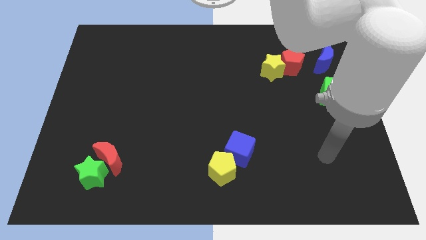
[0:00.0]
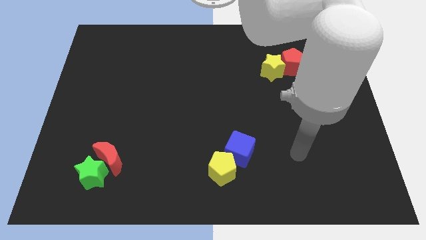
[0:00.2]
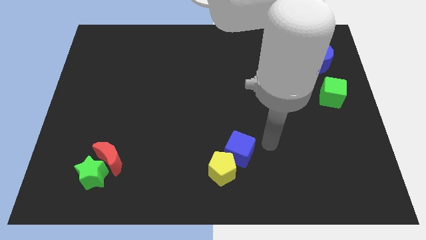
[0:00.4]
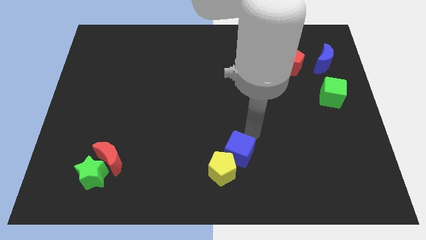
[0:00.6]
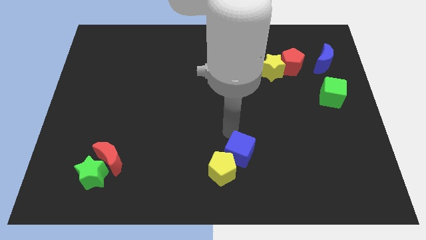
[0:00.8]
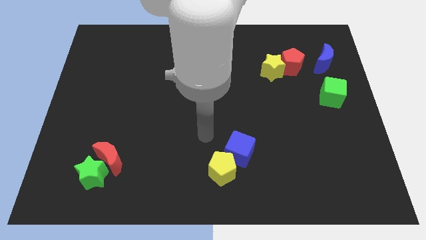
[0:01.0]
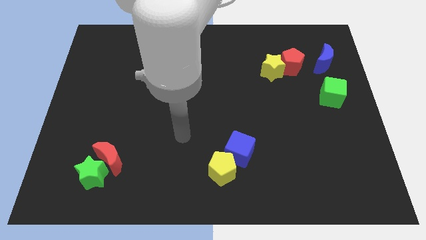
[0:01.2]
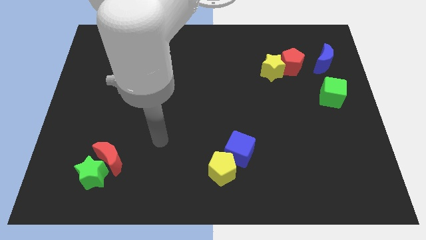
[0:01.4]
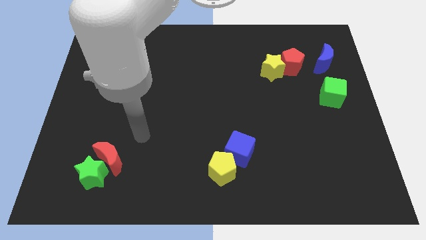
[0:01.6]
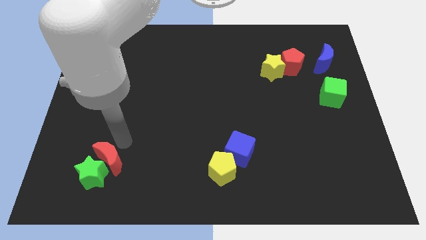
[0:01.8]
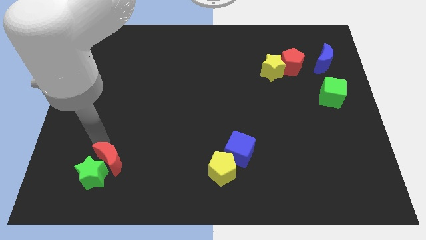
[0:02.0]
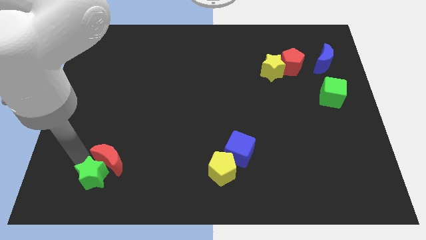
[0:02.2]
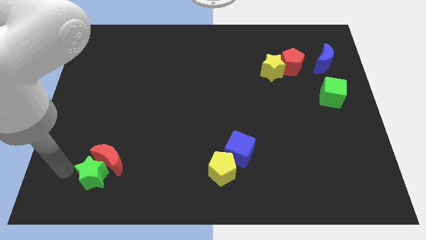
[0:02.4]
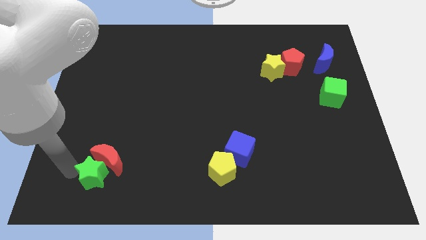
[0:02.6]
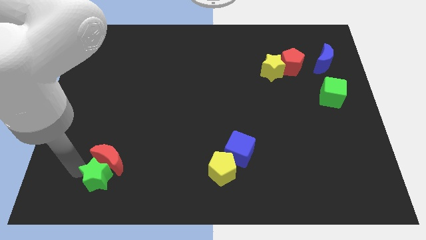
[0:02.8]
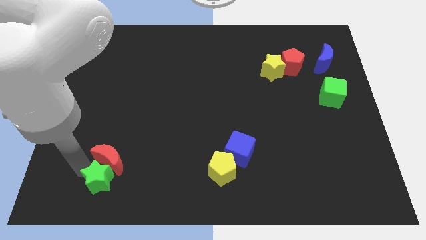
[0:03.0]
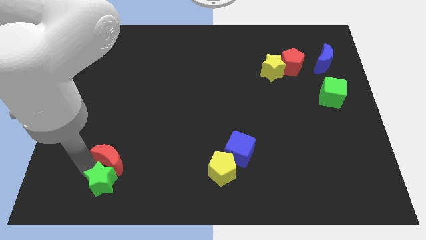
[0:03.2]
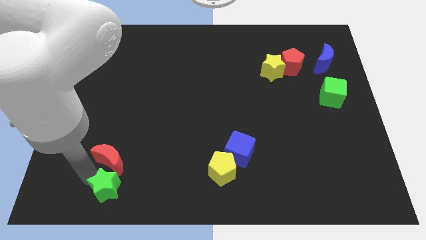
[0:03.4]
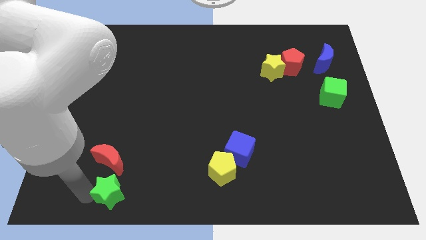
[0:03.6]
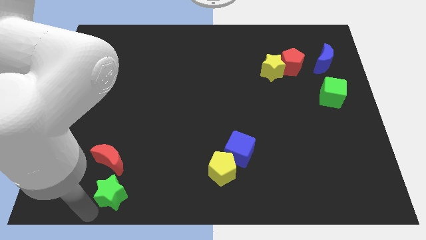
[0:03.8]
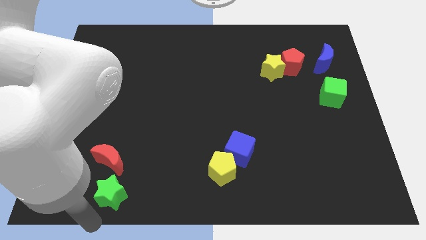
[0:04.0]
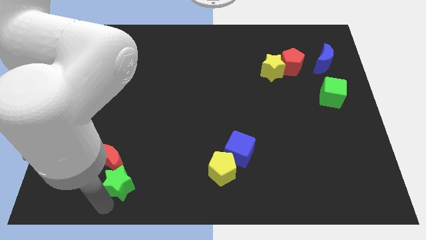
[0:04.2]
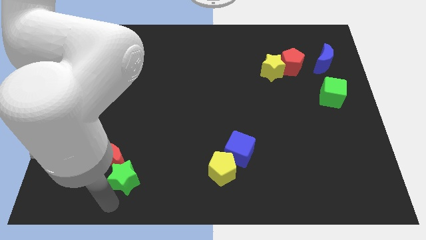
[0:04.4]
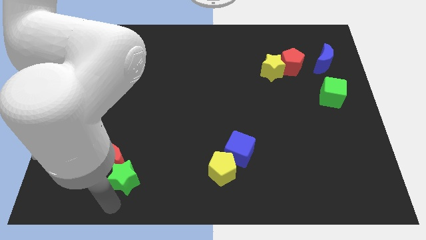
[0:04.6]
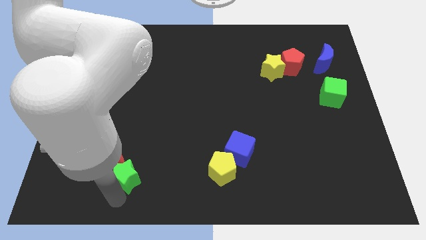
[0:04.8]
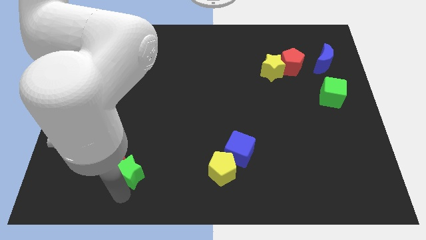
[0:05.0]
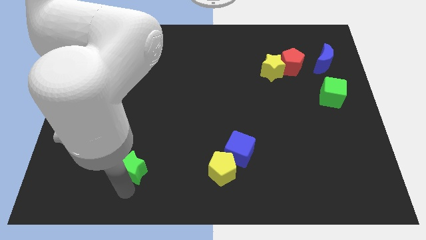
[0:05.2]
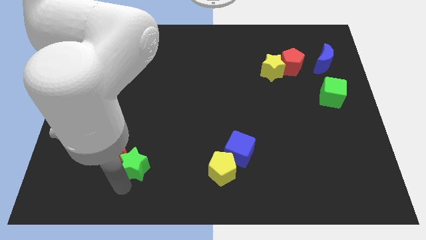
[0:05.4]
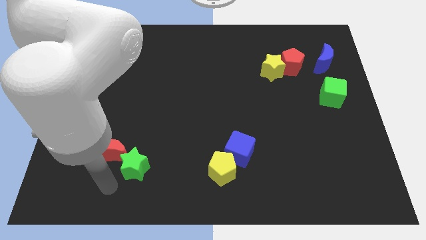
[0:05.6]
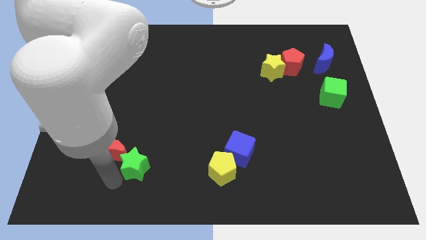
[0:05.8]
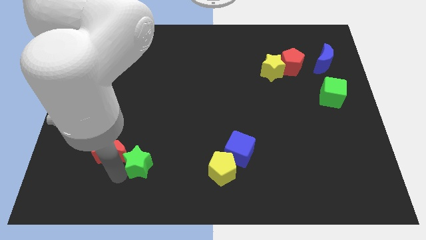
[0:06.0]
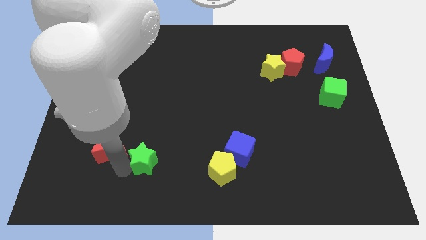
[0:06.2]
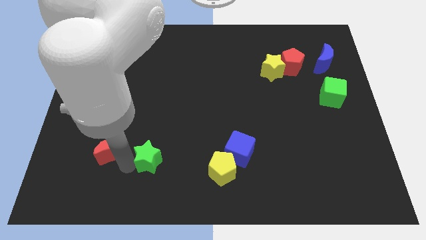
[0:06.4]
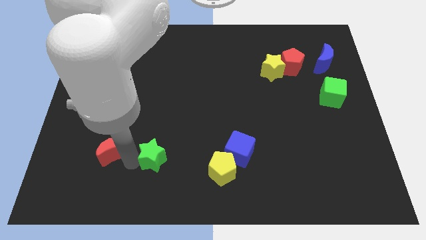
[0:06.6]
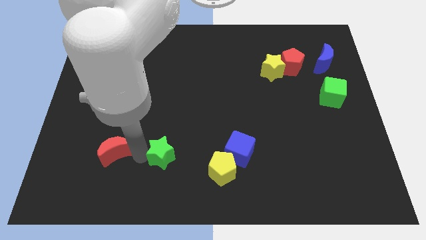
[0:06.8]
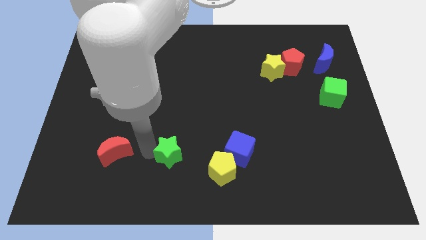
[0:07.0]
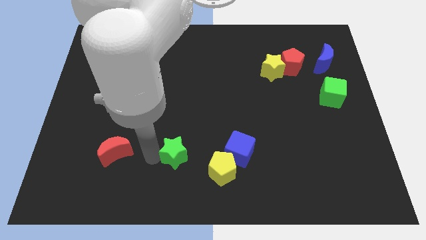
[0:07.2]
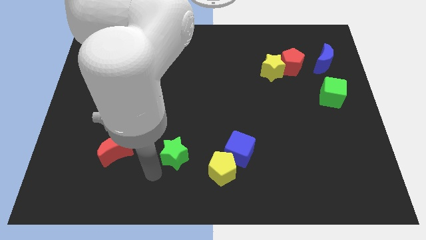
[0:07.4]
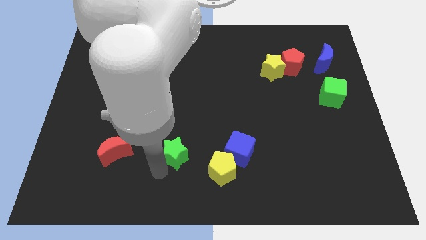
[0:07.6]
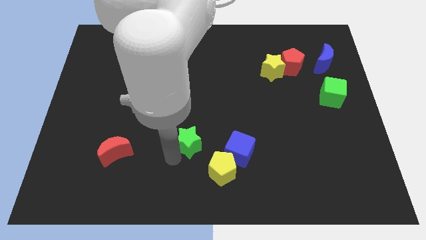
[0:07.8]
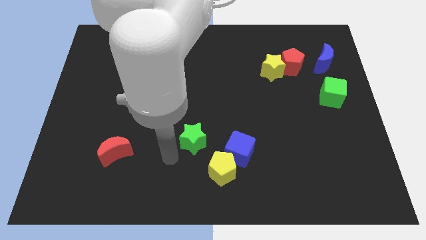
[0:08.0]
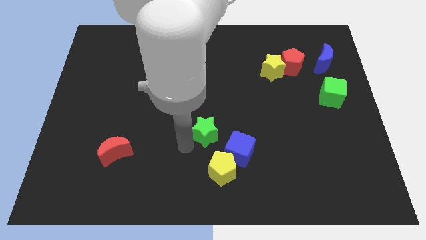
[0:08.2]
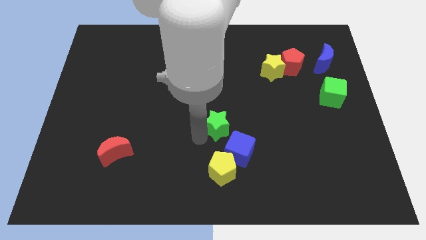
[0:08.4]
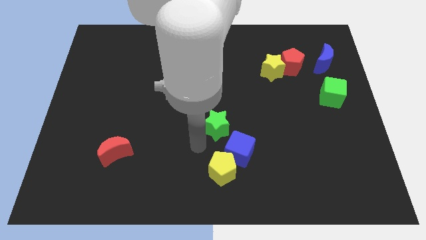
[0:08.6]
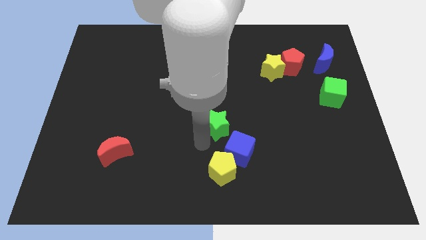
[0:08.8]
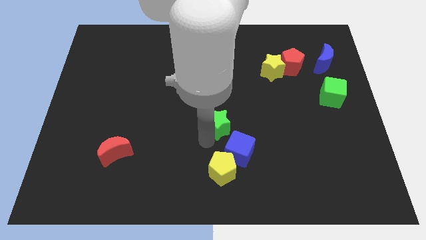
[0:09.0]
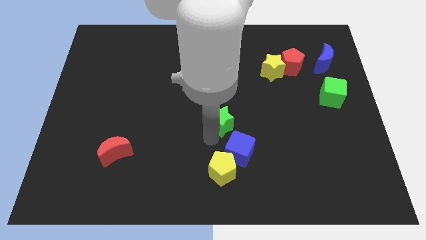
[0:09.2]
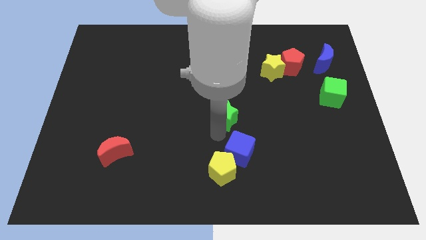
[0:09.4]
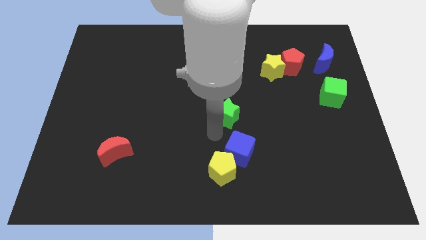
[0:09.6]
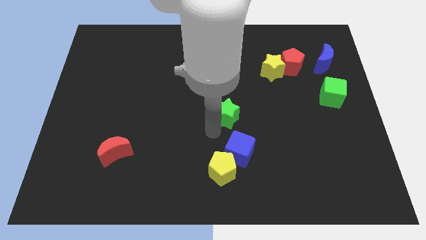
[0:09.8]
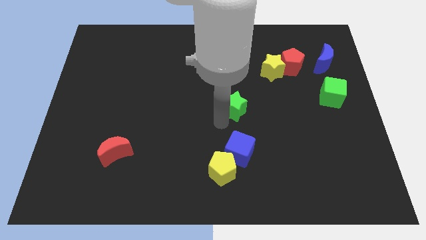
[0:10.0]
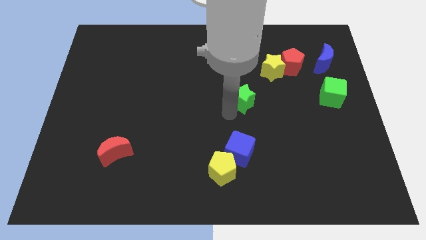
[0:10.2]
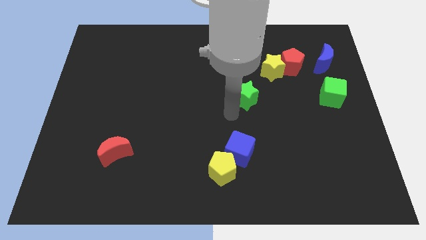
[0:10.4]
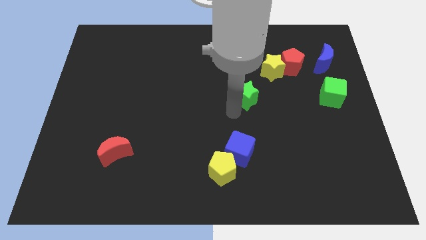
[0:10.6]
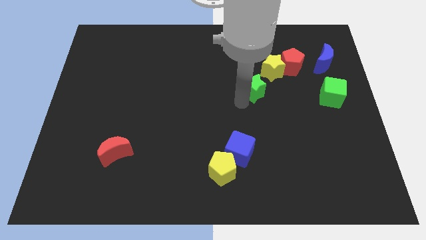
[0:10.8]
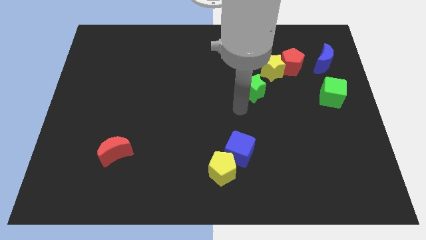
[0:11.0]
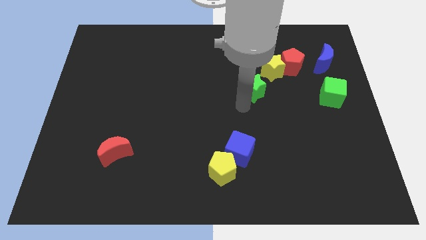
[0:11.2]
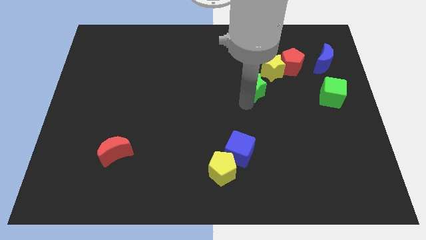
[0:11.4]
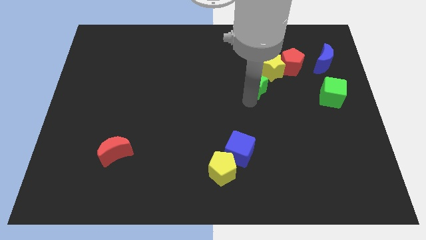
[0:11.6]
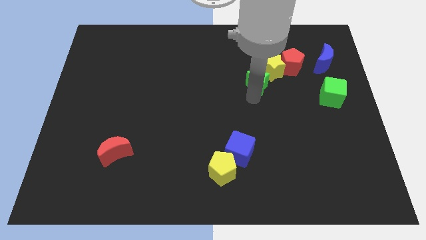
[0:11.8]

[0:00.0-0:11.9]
slide the green star towards the yellow star

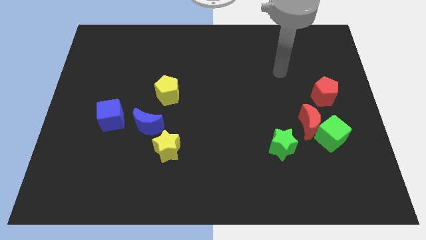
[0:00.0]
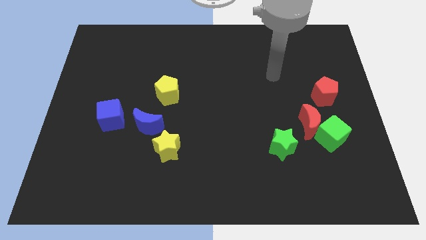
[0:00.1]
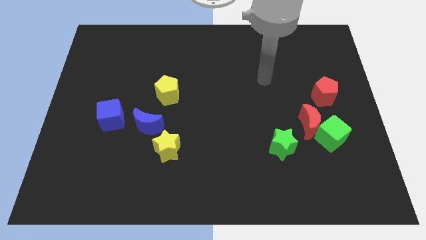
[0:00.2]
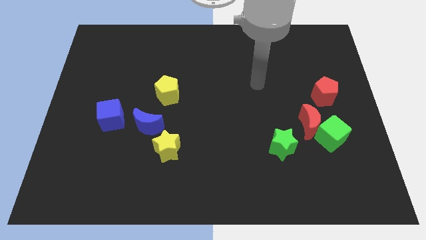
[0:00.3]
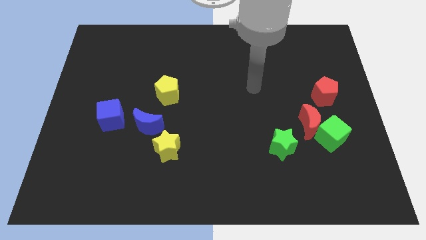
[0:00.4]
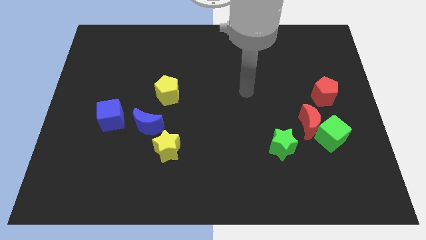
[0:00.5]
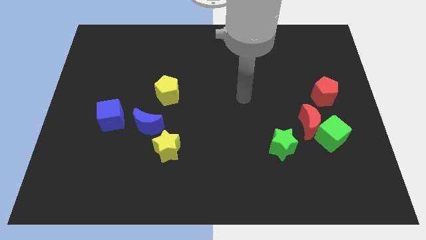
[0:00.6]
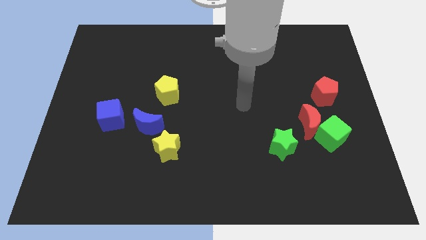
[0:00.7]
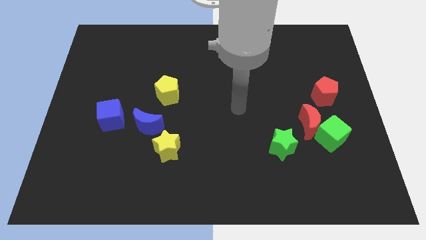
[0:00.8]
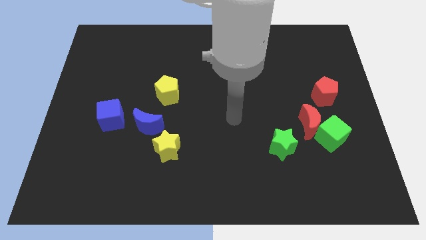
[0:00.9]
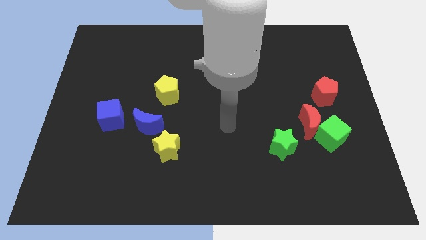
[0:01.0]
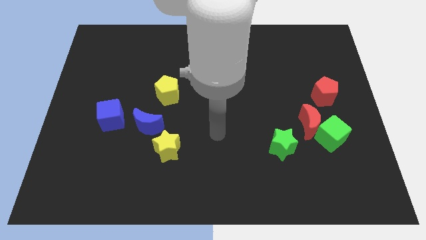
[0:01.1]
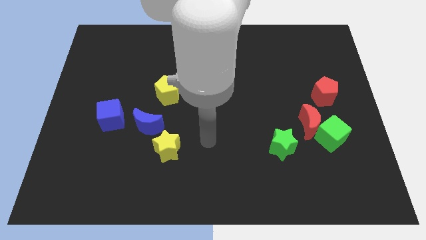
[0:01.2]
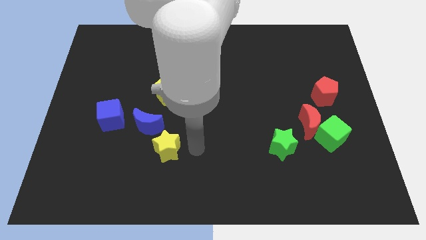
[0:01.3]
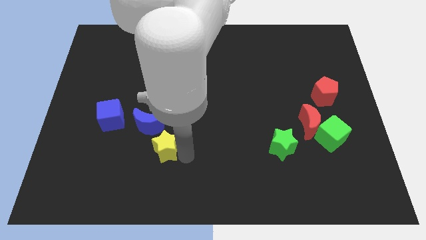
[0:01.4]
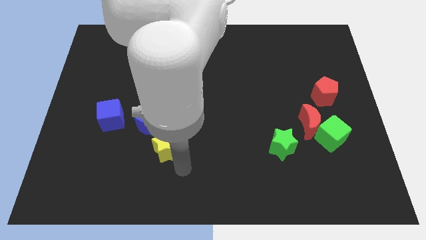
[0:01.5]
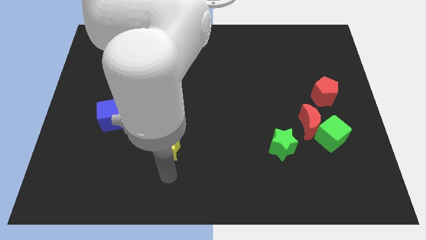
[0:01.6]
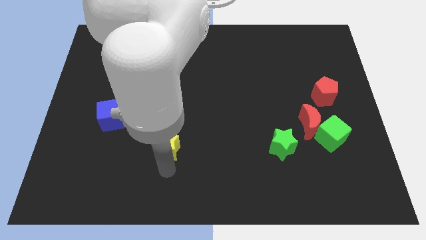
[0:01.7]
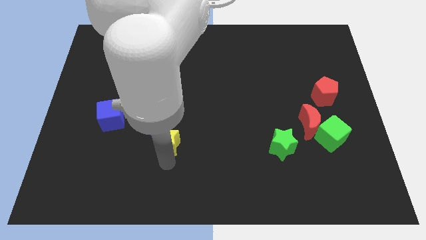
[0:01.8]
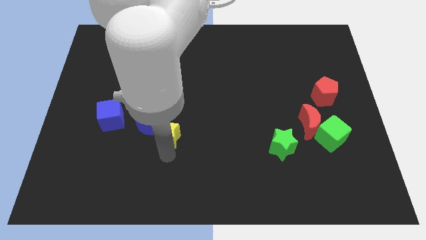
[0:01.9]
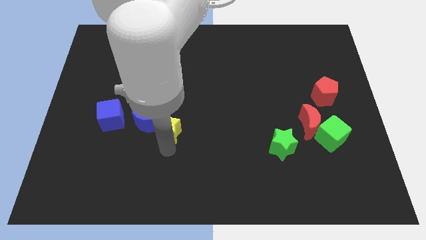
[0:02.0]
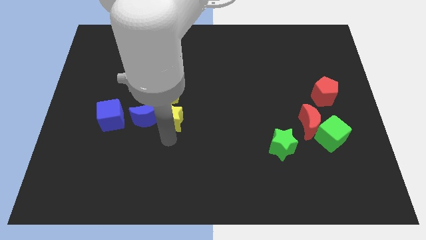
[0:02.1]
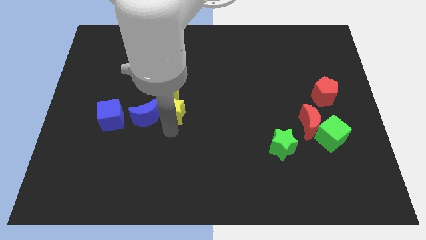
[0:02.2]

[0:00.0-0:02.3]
put the yellow star towards the yellow pentagon
